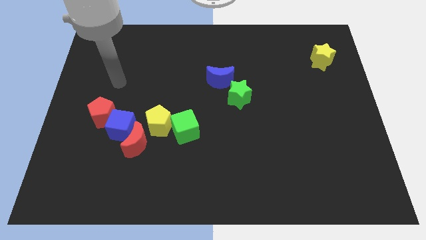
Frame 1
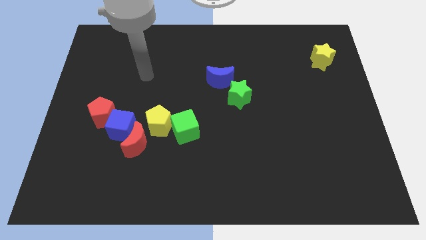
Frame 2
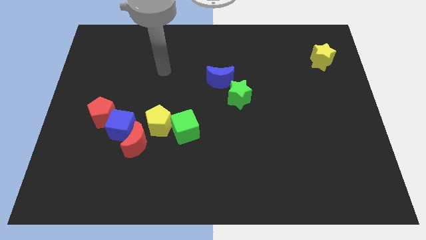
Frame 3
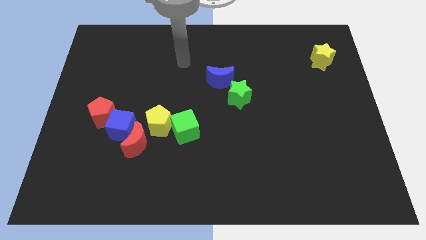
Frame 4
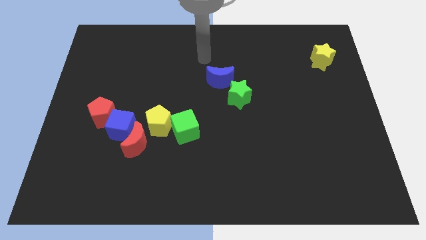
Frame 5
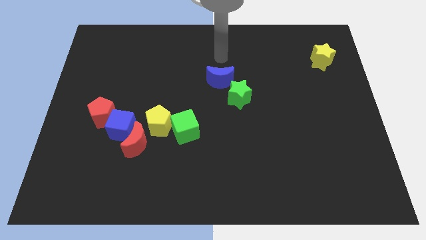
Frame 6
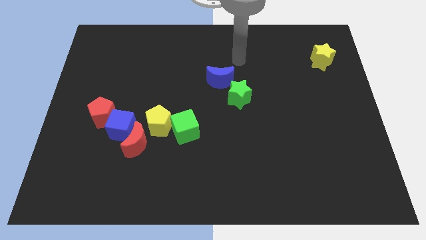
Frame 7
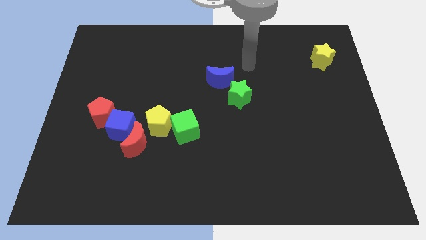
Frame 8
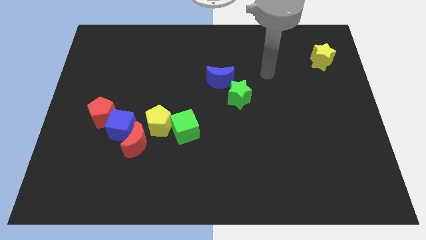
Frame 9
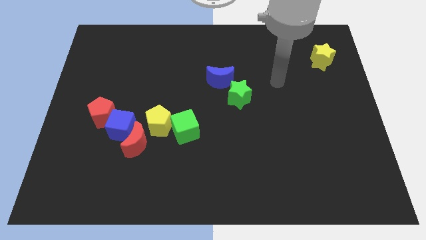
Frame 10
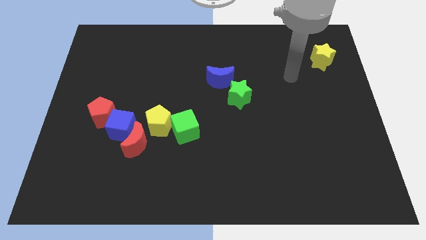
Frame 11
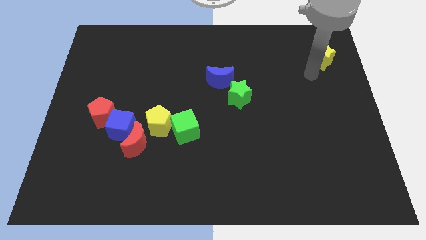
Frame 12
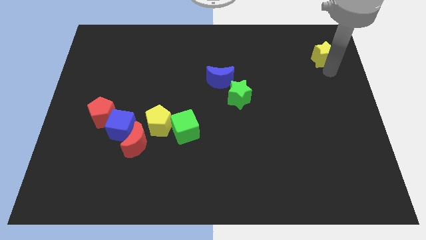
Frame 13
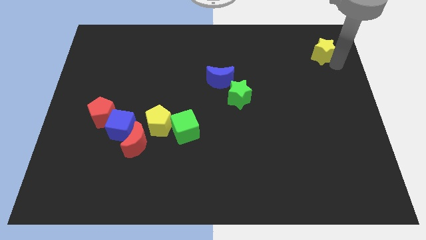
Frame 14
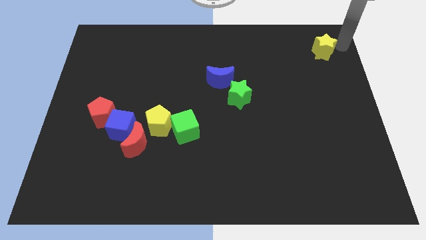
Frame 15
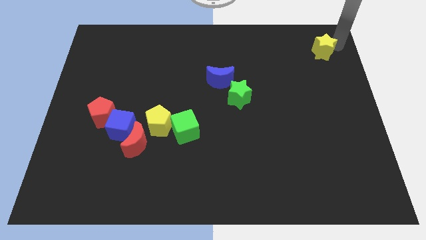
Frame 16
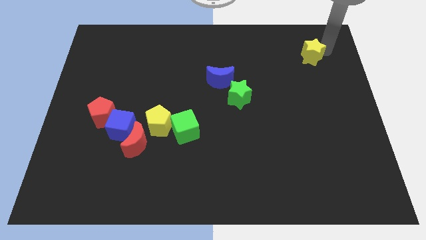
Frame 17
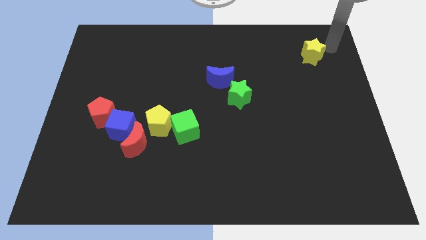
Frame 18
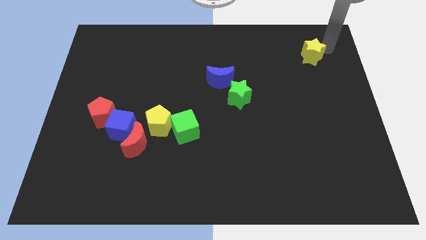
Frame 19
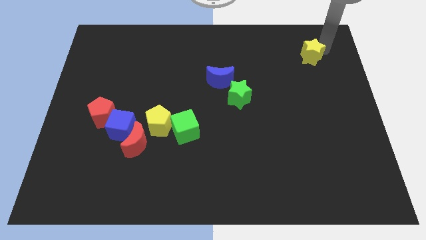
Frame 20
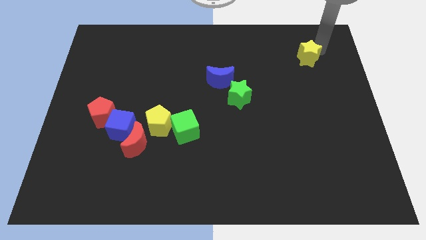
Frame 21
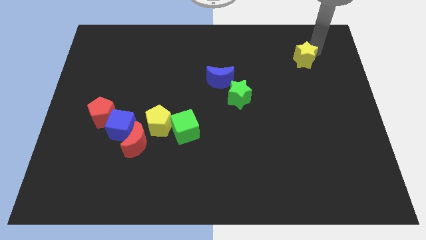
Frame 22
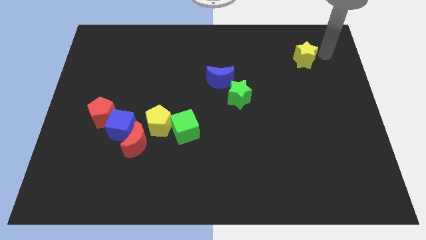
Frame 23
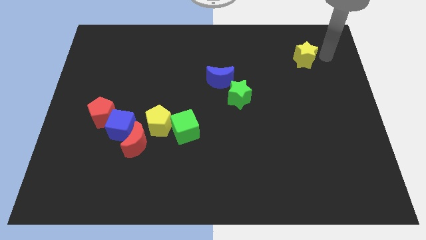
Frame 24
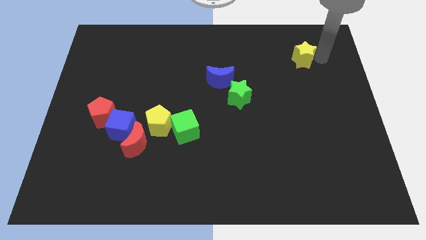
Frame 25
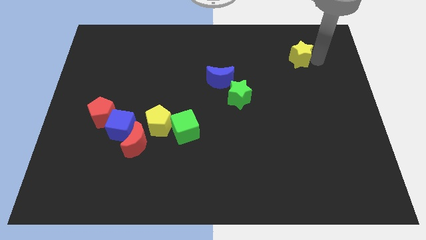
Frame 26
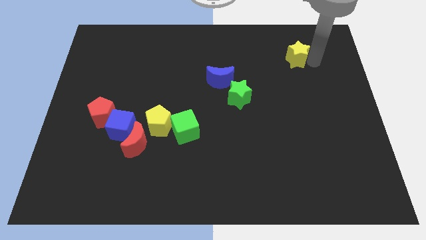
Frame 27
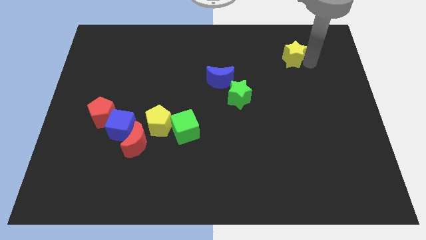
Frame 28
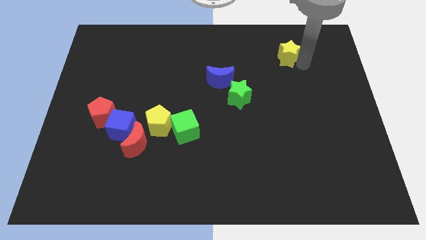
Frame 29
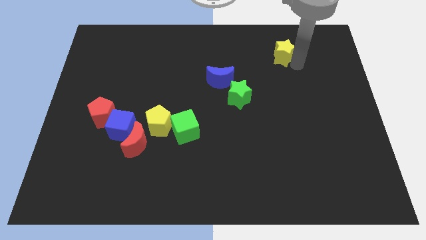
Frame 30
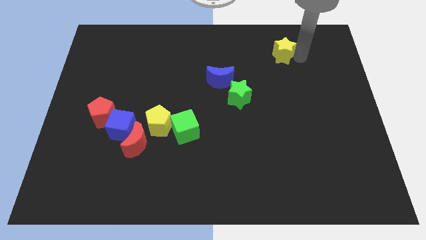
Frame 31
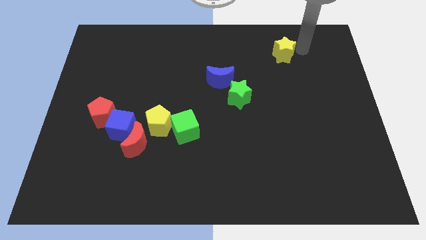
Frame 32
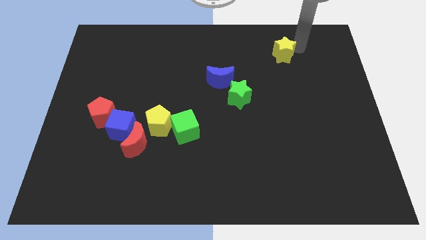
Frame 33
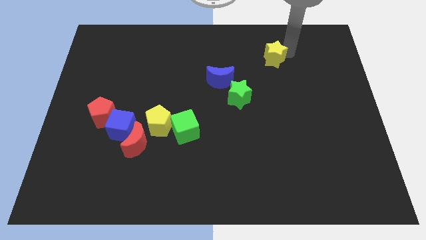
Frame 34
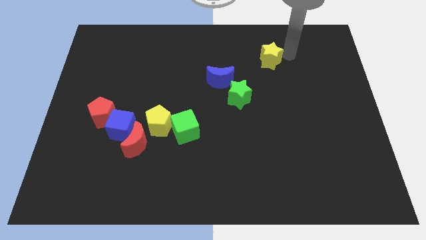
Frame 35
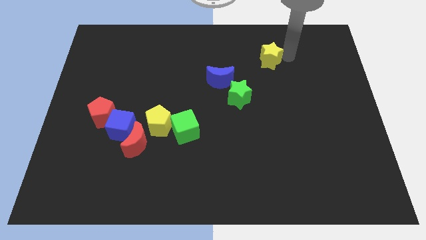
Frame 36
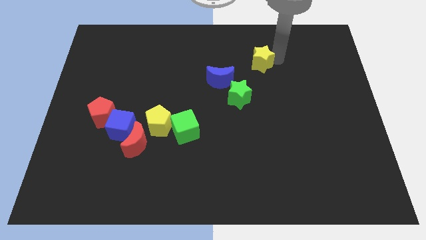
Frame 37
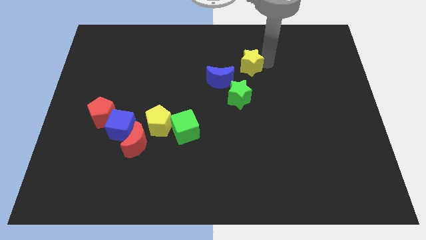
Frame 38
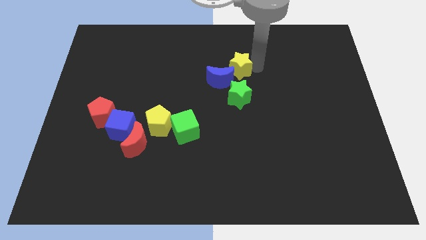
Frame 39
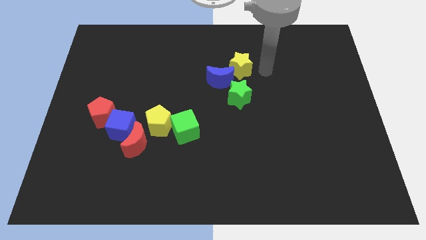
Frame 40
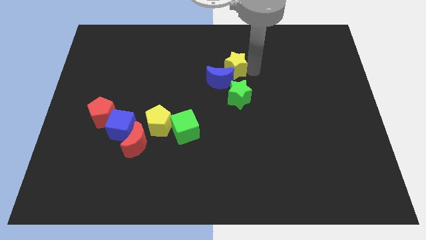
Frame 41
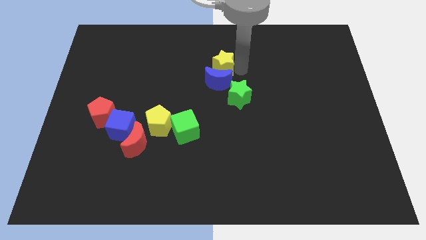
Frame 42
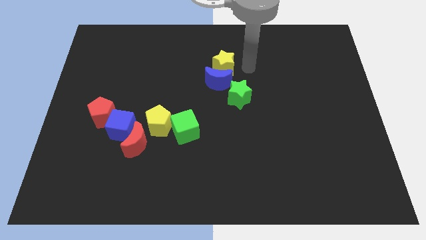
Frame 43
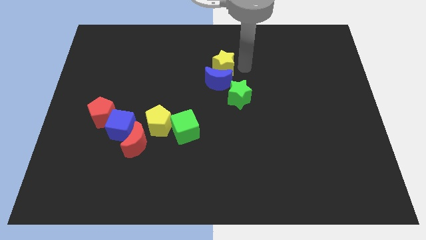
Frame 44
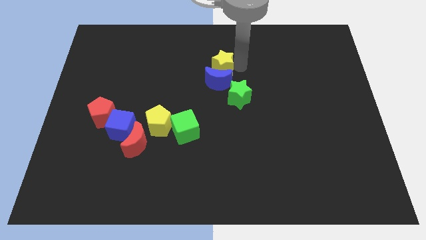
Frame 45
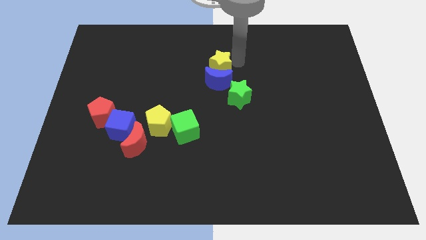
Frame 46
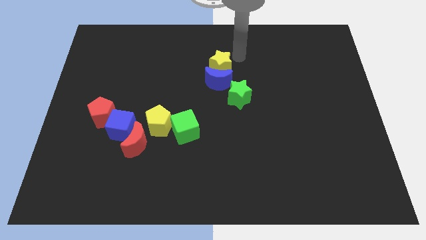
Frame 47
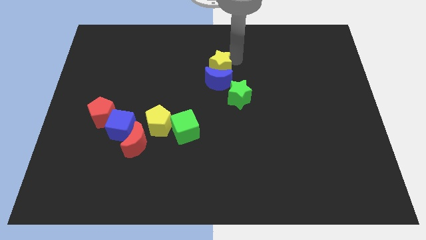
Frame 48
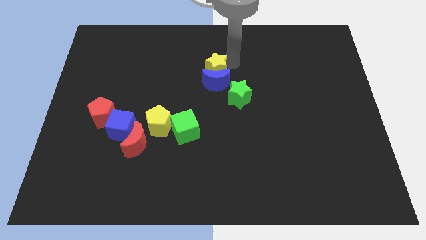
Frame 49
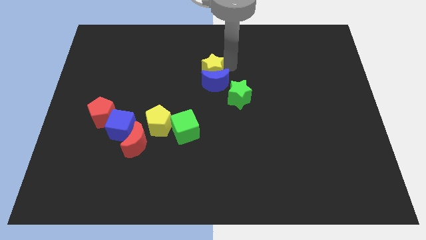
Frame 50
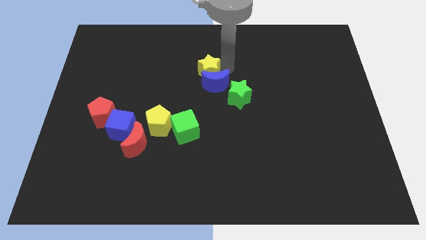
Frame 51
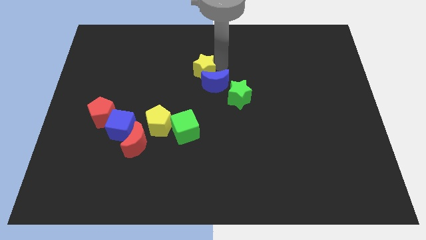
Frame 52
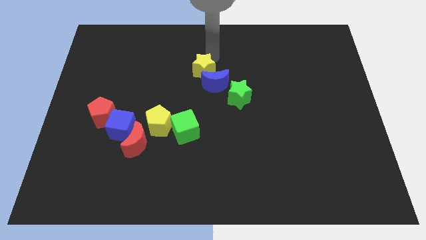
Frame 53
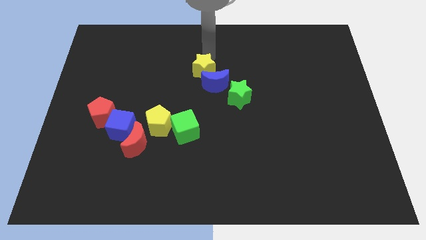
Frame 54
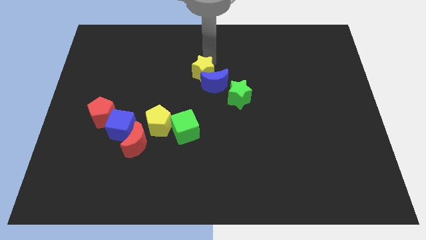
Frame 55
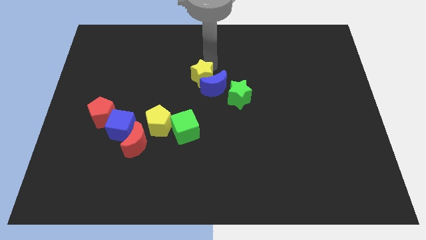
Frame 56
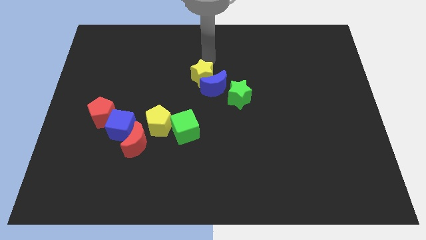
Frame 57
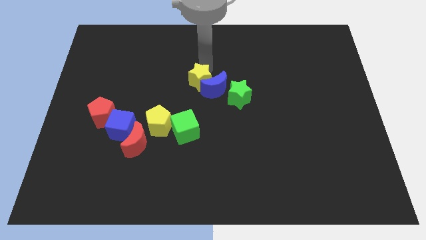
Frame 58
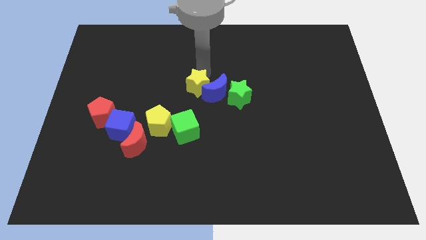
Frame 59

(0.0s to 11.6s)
move the yellow star left of the green star
